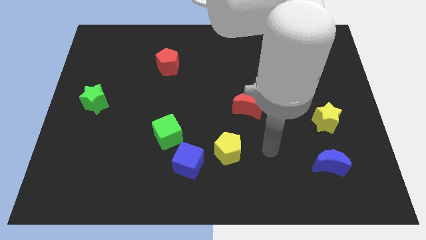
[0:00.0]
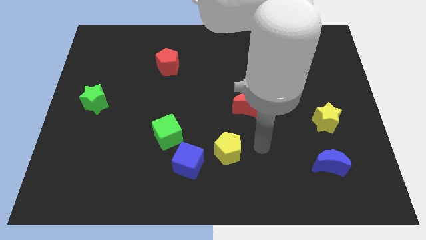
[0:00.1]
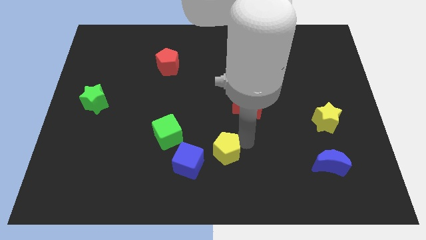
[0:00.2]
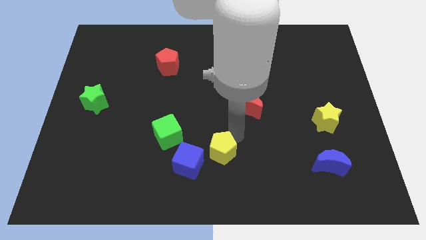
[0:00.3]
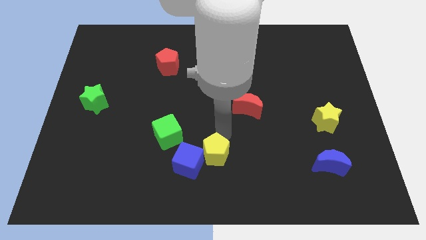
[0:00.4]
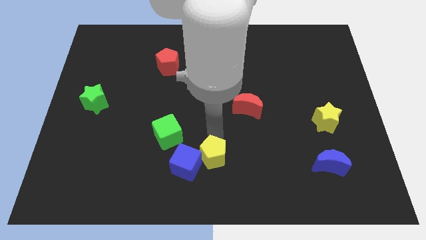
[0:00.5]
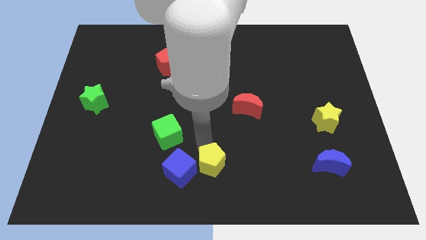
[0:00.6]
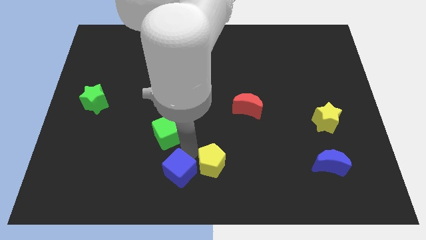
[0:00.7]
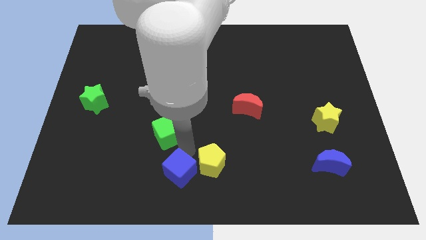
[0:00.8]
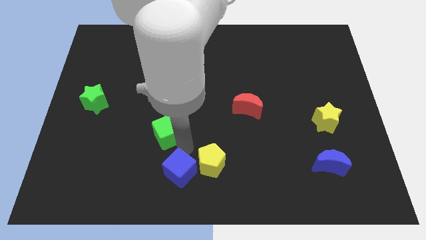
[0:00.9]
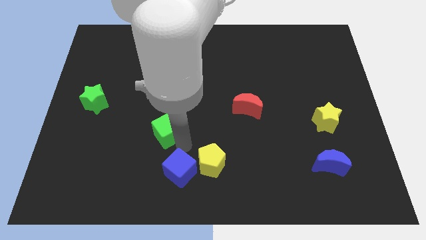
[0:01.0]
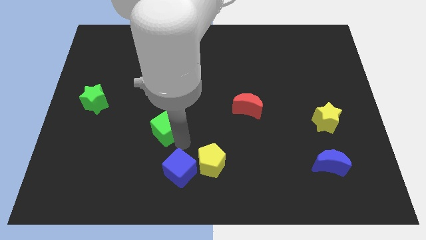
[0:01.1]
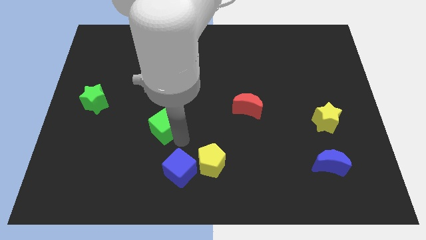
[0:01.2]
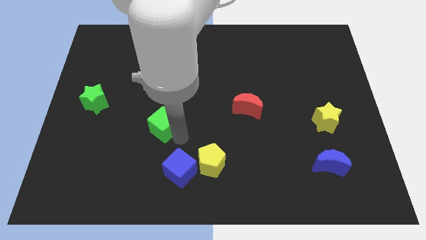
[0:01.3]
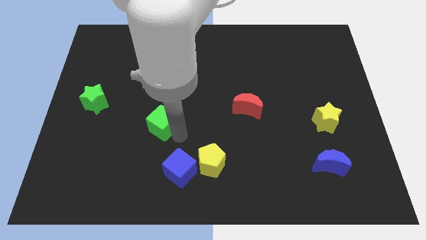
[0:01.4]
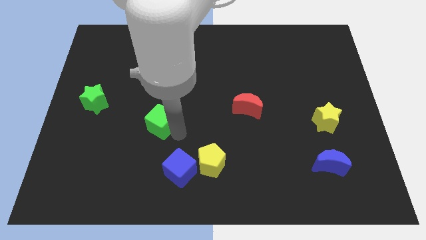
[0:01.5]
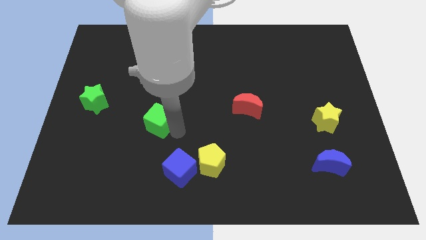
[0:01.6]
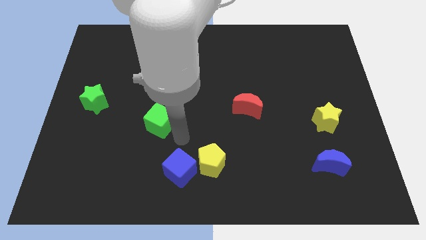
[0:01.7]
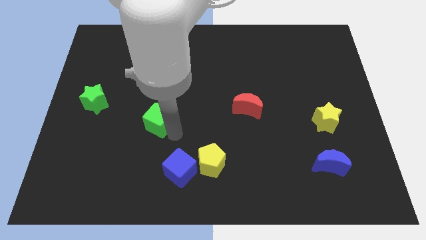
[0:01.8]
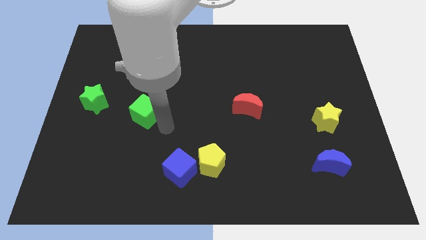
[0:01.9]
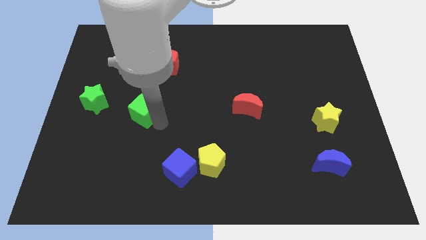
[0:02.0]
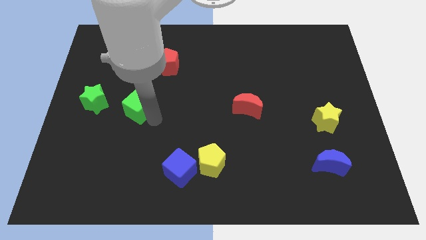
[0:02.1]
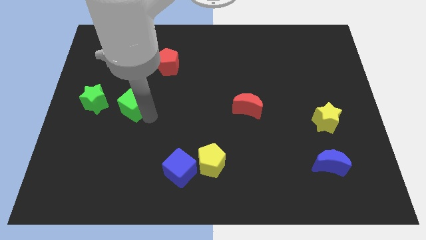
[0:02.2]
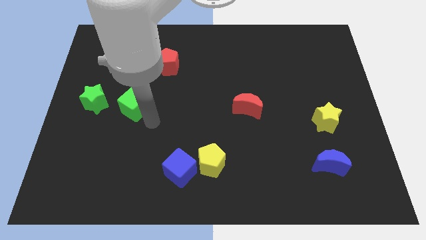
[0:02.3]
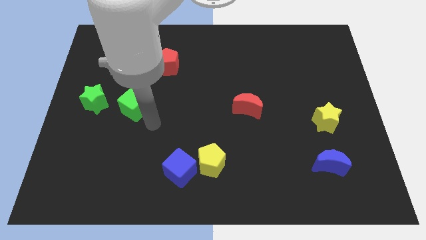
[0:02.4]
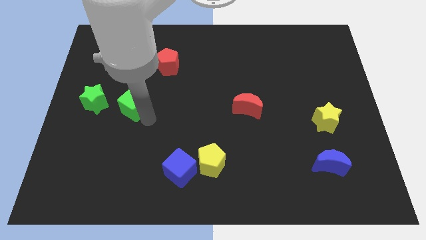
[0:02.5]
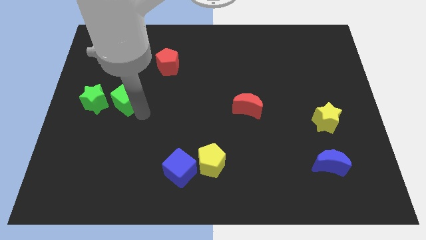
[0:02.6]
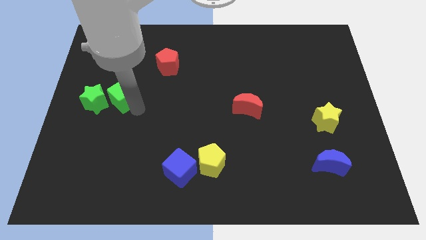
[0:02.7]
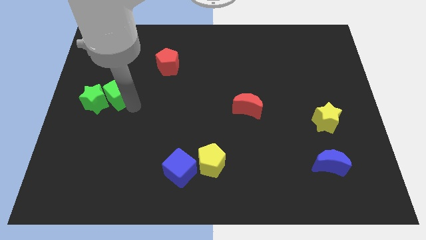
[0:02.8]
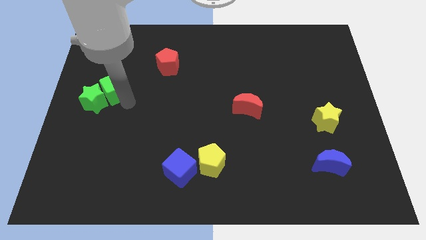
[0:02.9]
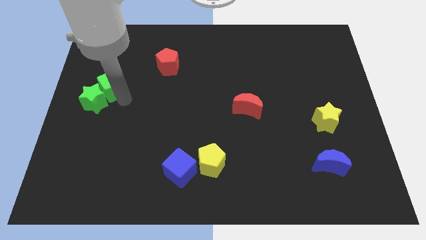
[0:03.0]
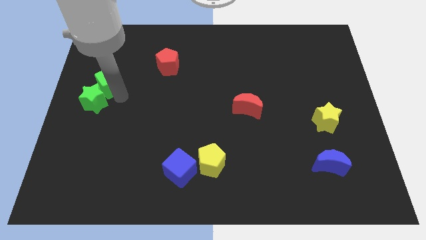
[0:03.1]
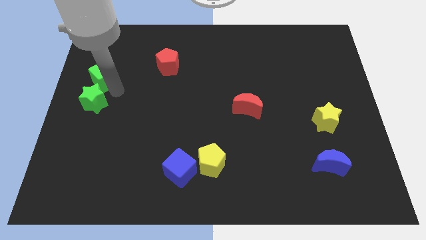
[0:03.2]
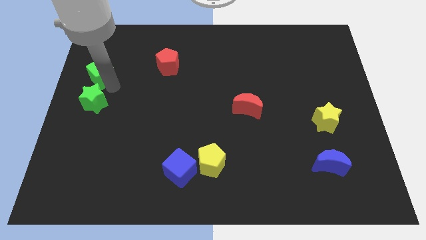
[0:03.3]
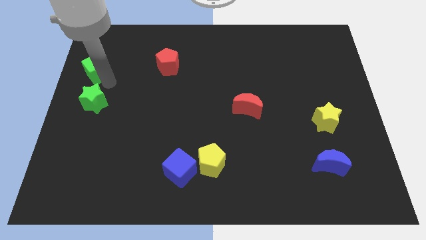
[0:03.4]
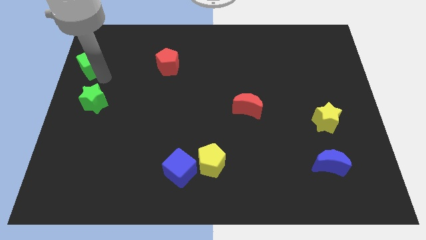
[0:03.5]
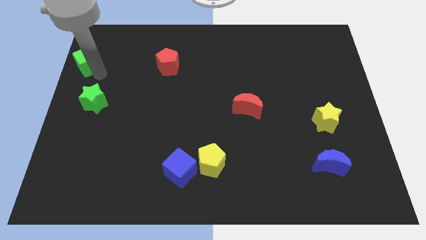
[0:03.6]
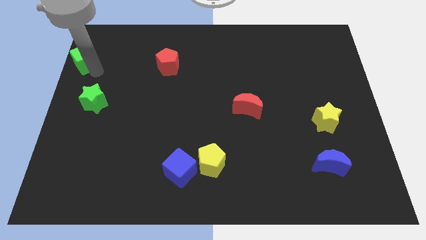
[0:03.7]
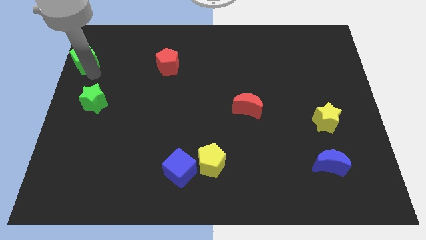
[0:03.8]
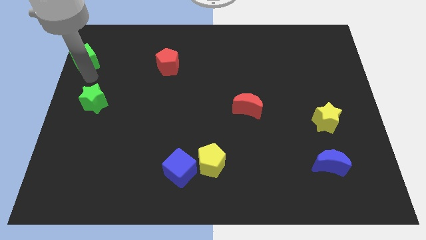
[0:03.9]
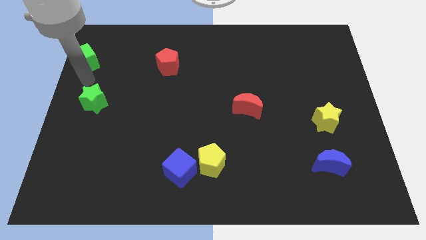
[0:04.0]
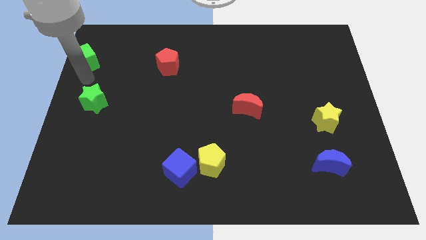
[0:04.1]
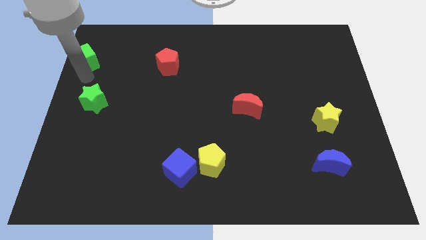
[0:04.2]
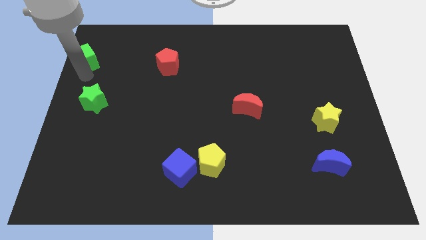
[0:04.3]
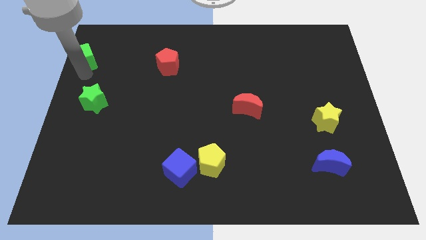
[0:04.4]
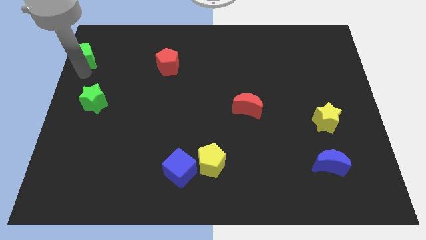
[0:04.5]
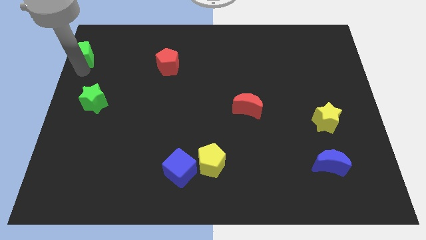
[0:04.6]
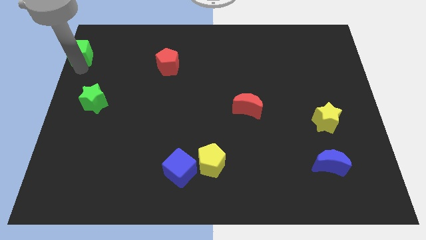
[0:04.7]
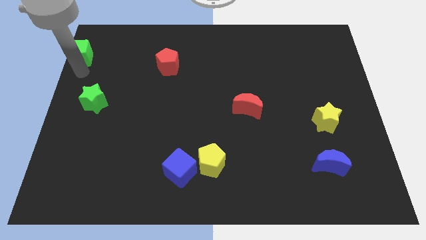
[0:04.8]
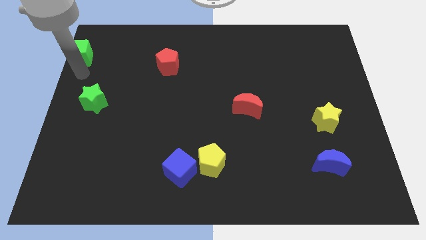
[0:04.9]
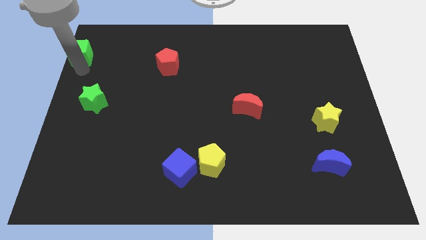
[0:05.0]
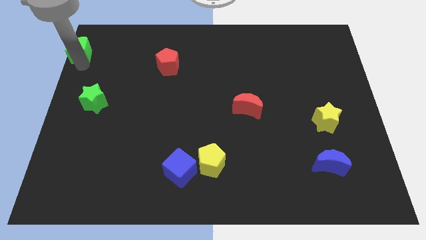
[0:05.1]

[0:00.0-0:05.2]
move the green cube to the upper left corner

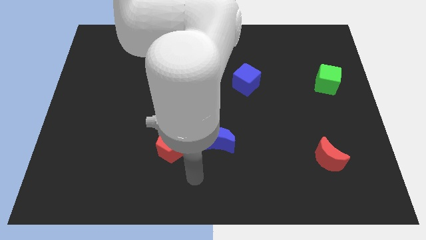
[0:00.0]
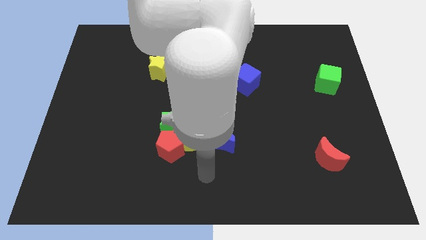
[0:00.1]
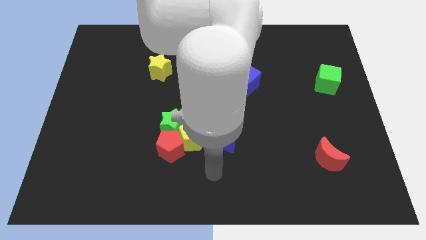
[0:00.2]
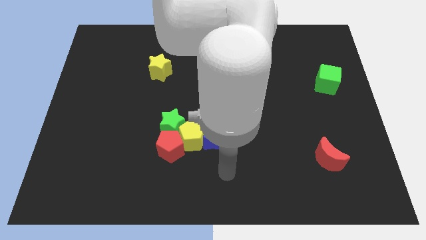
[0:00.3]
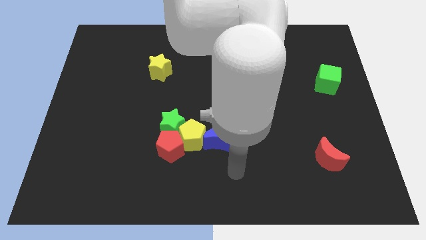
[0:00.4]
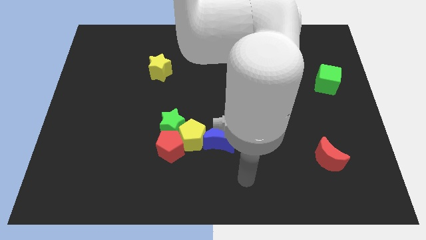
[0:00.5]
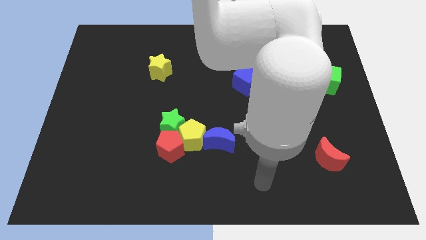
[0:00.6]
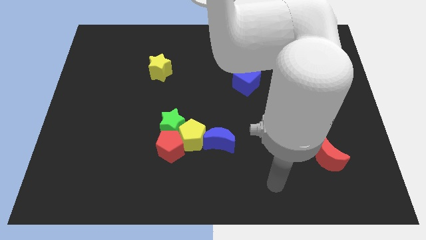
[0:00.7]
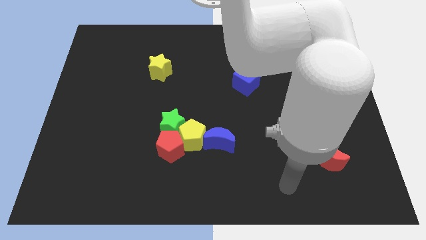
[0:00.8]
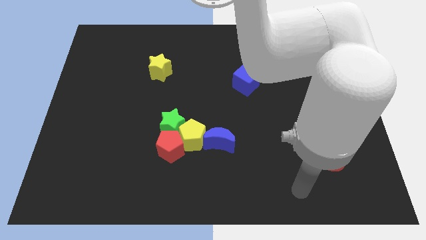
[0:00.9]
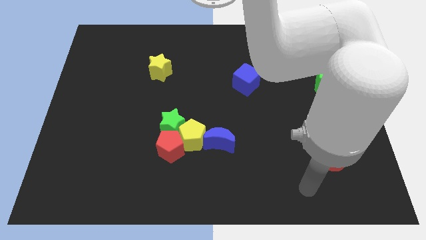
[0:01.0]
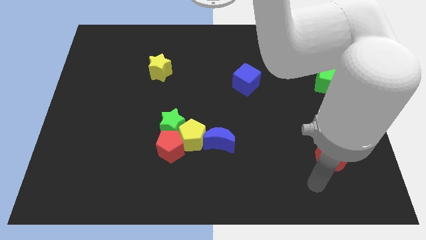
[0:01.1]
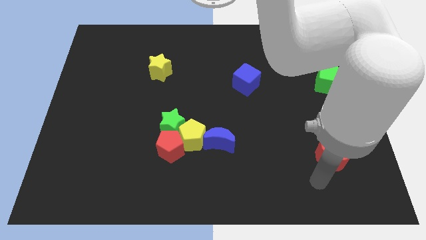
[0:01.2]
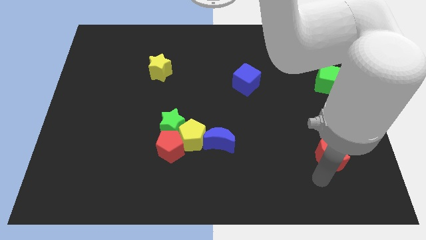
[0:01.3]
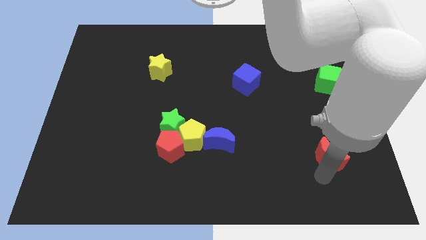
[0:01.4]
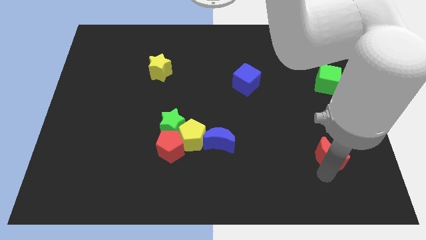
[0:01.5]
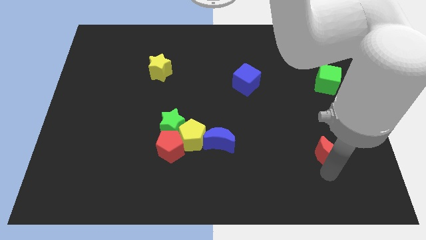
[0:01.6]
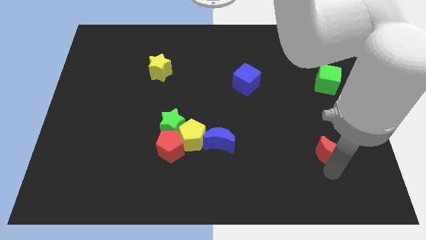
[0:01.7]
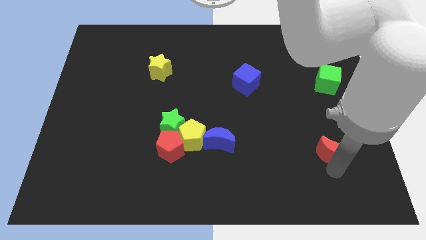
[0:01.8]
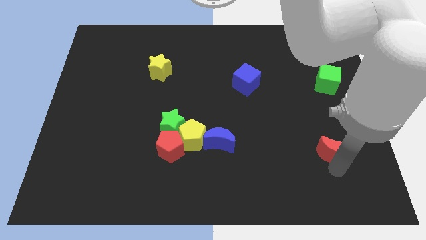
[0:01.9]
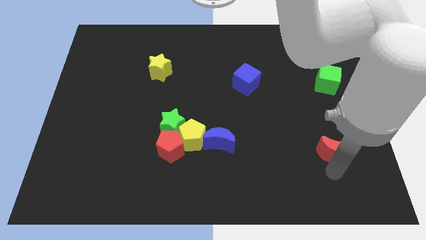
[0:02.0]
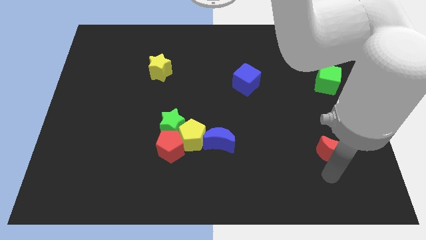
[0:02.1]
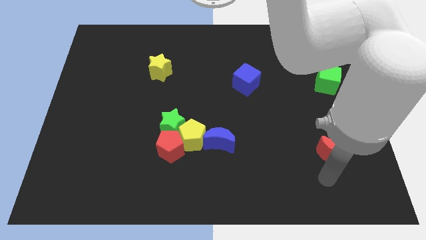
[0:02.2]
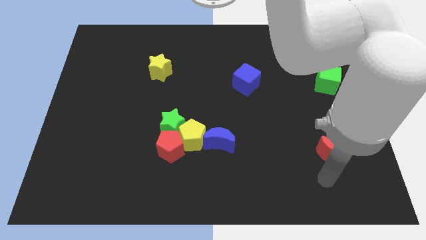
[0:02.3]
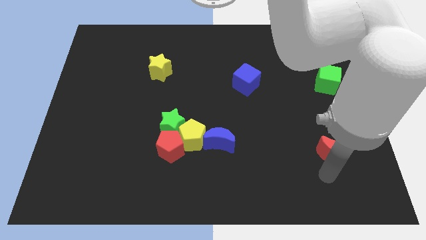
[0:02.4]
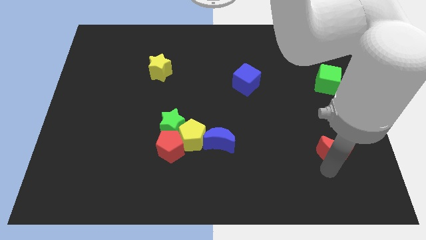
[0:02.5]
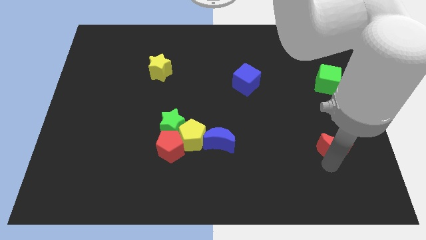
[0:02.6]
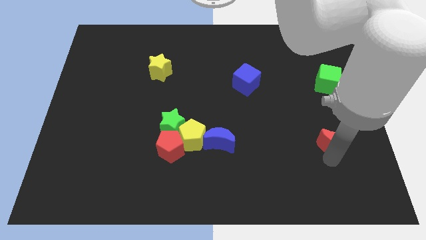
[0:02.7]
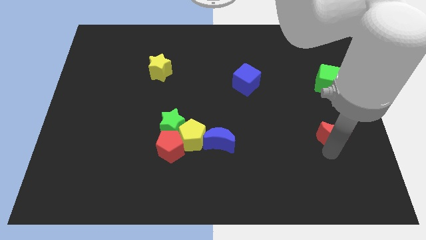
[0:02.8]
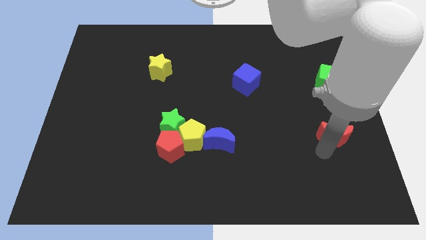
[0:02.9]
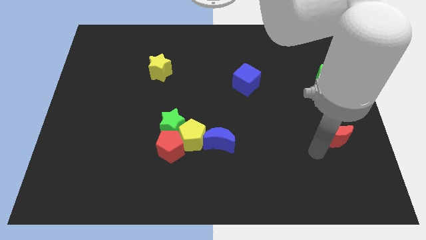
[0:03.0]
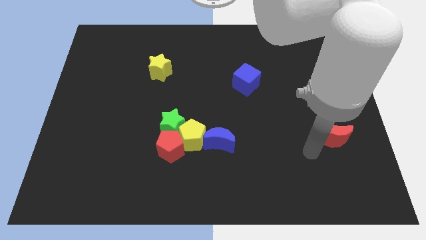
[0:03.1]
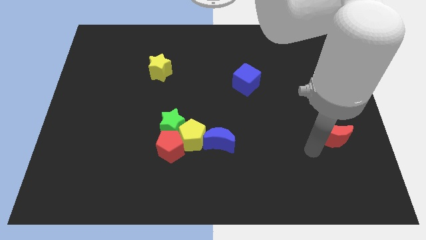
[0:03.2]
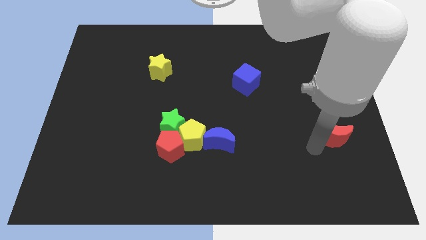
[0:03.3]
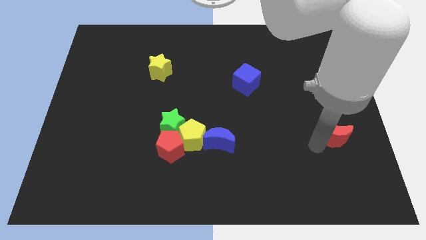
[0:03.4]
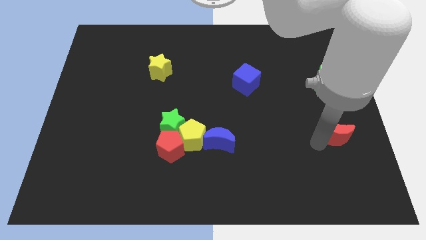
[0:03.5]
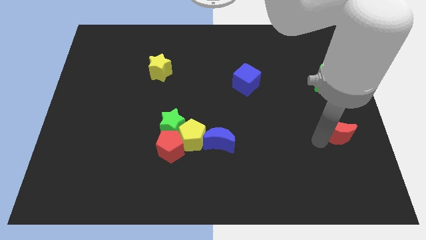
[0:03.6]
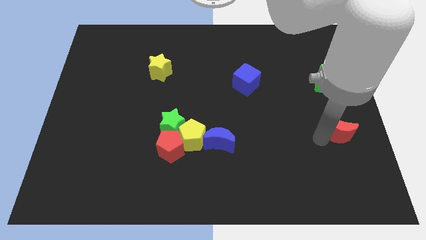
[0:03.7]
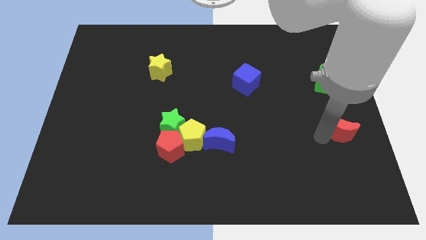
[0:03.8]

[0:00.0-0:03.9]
slide the red moon to the right side
